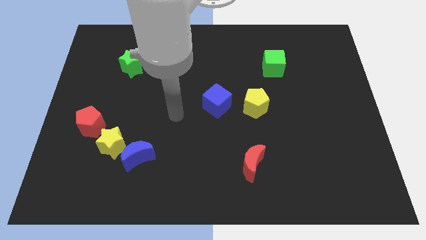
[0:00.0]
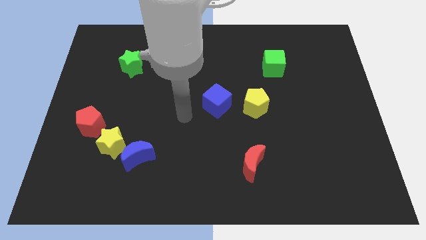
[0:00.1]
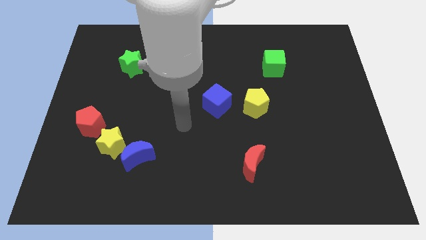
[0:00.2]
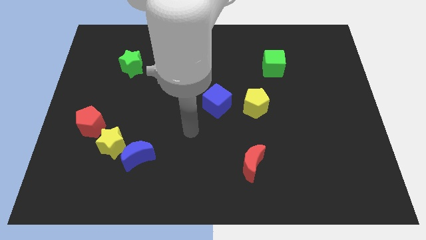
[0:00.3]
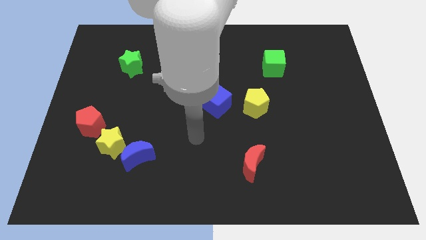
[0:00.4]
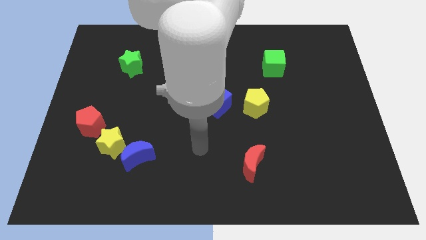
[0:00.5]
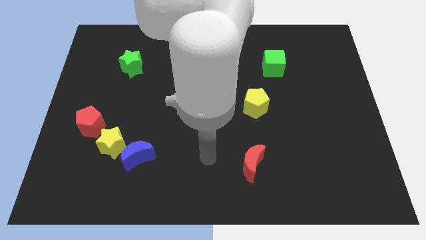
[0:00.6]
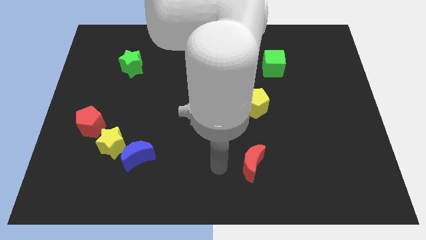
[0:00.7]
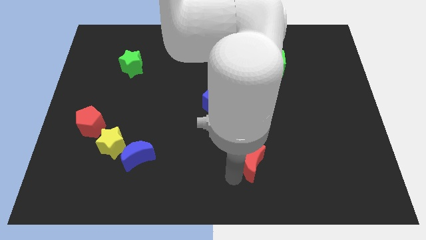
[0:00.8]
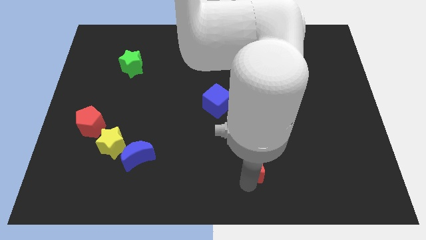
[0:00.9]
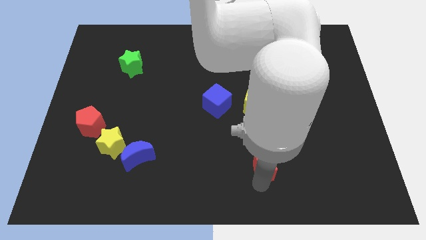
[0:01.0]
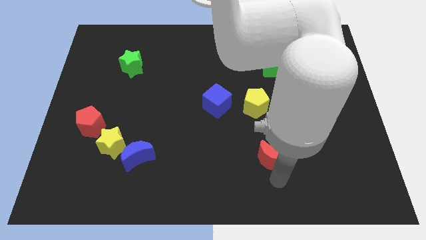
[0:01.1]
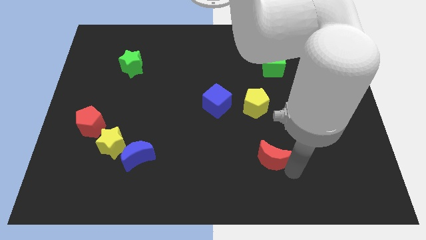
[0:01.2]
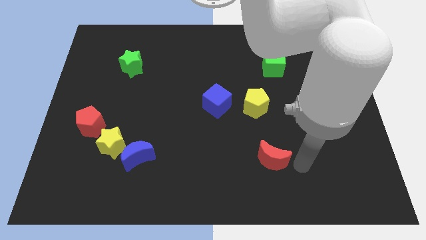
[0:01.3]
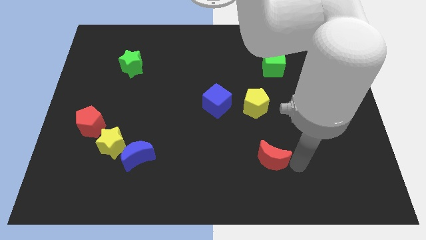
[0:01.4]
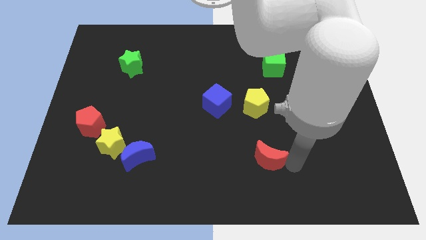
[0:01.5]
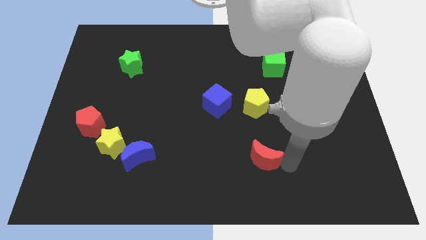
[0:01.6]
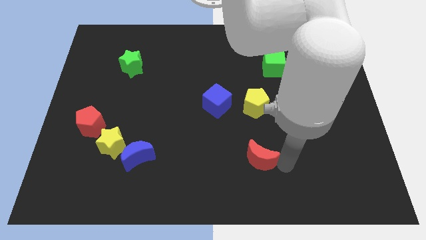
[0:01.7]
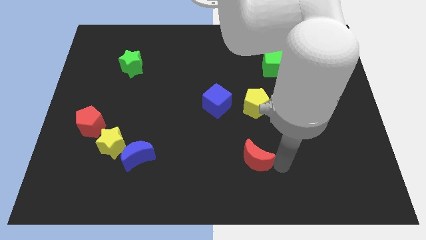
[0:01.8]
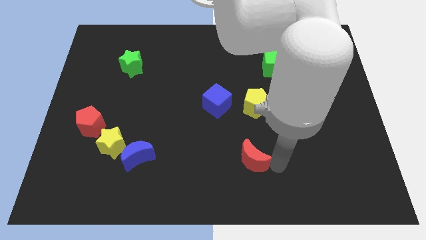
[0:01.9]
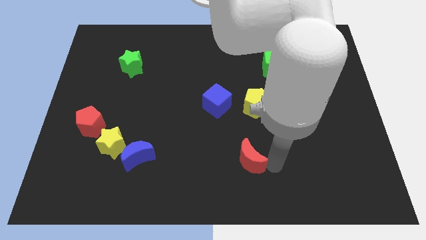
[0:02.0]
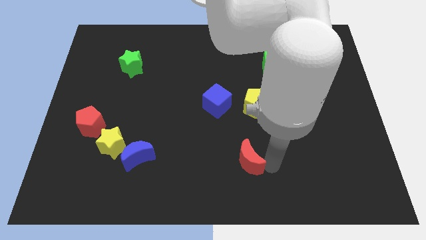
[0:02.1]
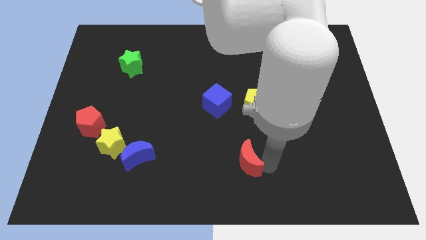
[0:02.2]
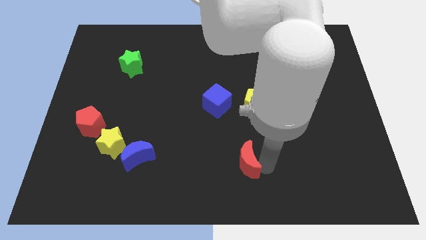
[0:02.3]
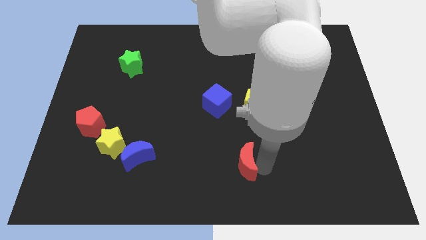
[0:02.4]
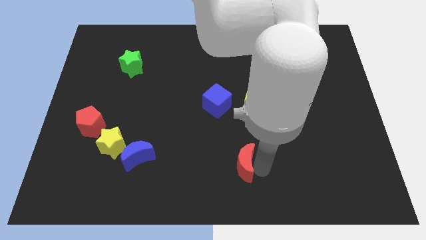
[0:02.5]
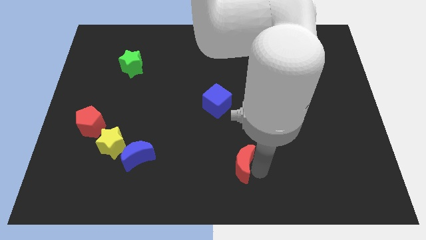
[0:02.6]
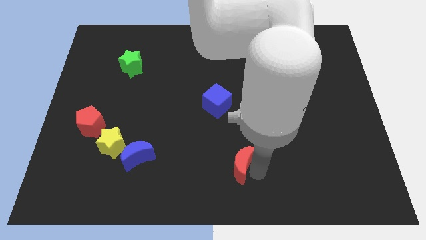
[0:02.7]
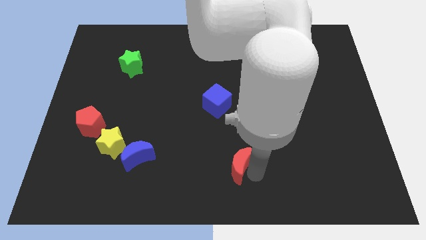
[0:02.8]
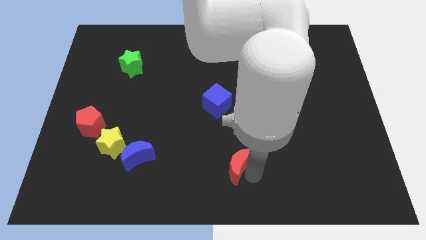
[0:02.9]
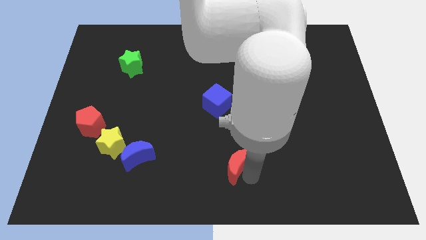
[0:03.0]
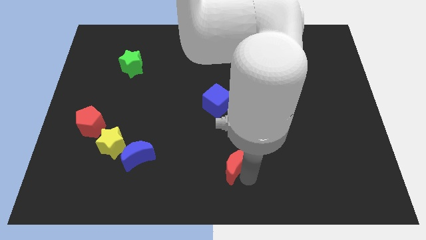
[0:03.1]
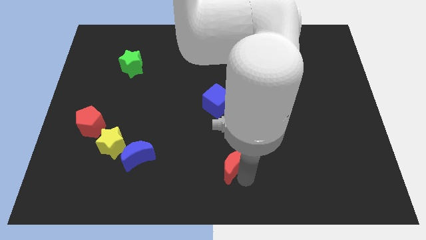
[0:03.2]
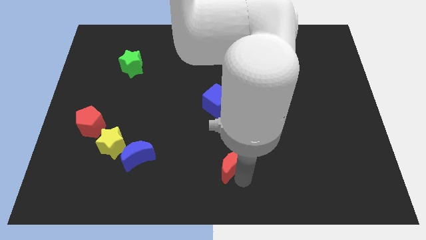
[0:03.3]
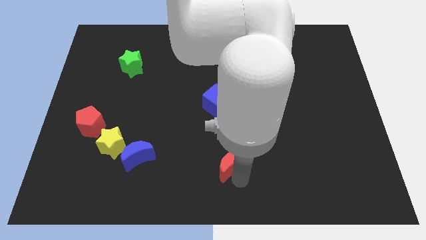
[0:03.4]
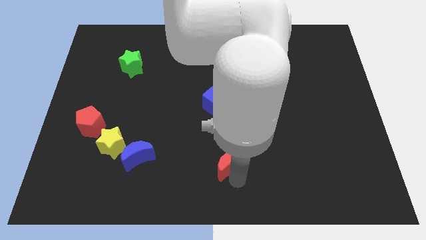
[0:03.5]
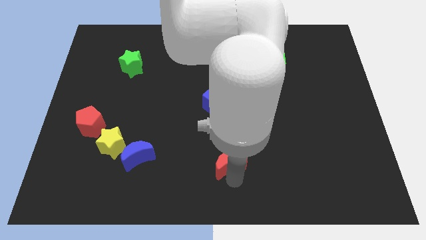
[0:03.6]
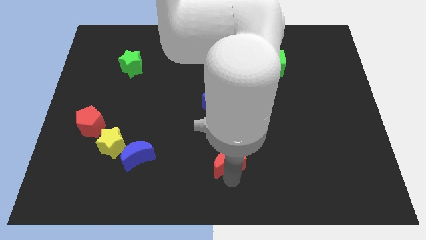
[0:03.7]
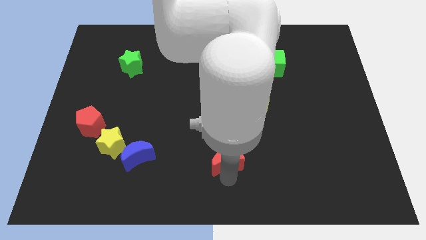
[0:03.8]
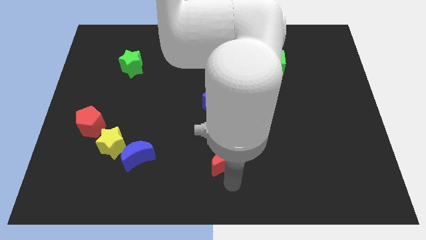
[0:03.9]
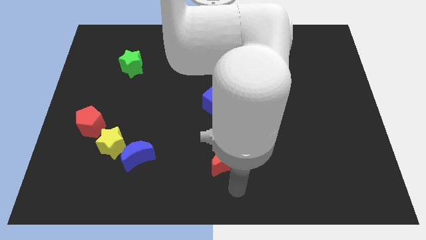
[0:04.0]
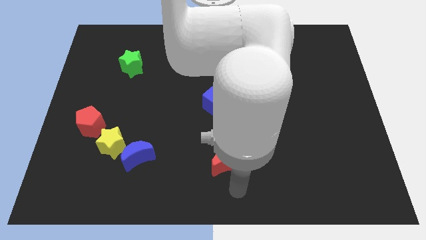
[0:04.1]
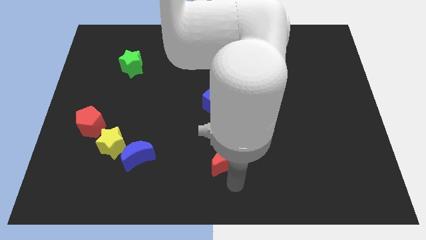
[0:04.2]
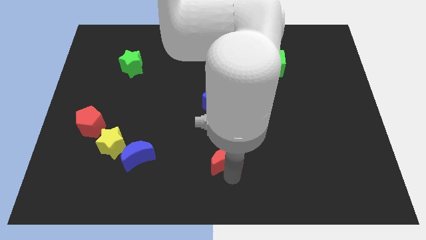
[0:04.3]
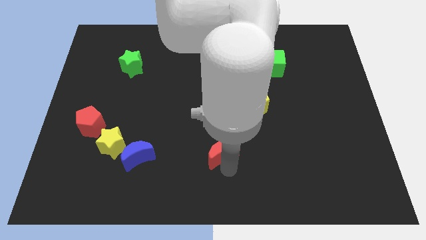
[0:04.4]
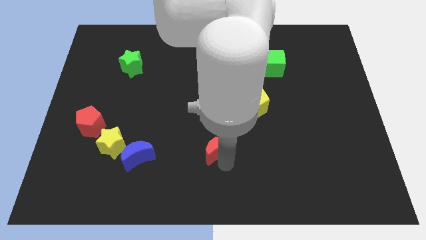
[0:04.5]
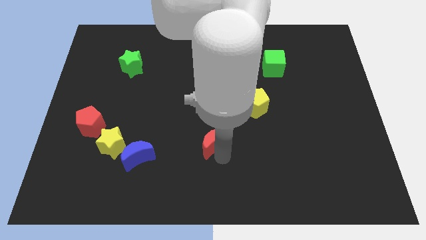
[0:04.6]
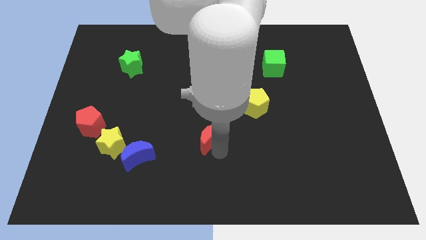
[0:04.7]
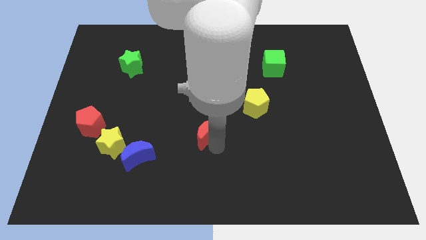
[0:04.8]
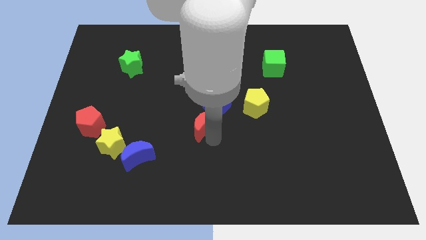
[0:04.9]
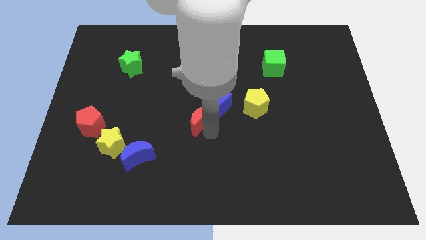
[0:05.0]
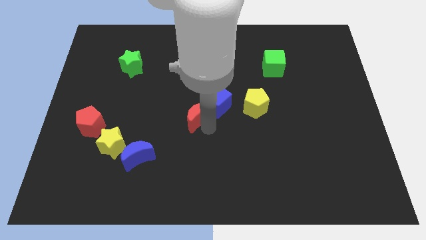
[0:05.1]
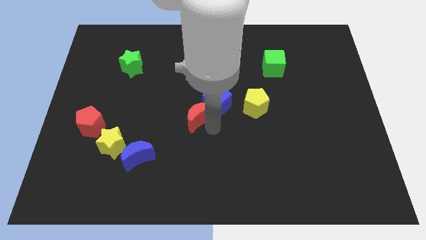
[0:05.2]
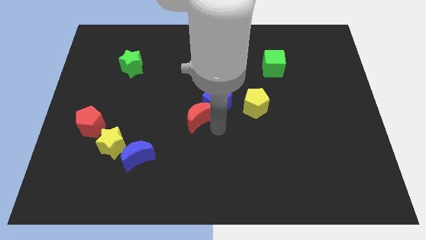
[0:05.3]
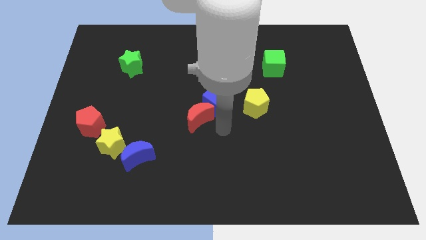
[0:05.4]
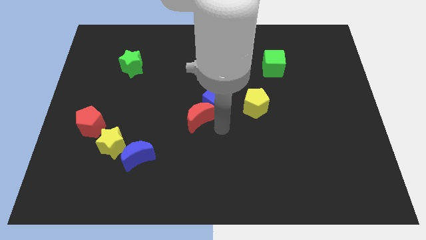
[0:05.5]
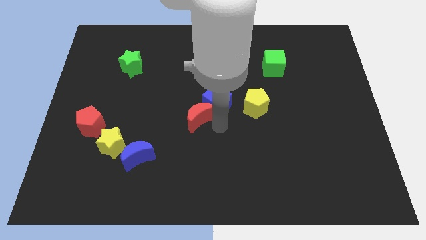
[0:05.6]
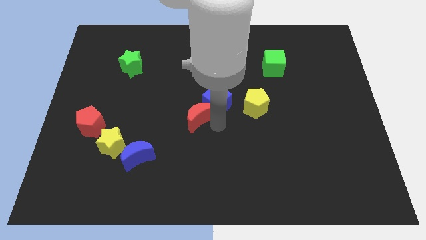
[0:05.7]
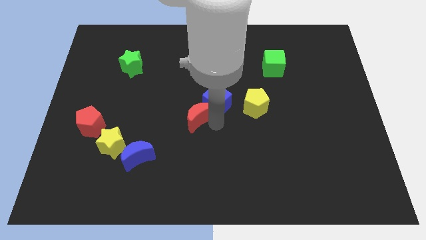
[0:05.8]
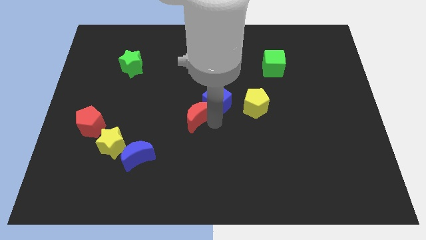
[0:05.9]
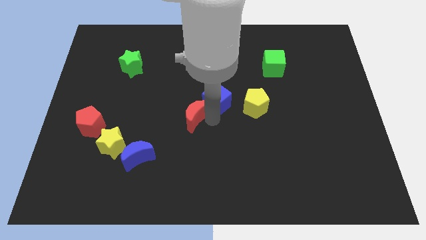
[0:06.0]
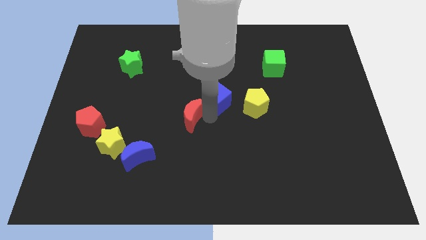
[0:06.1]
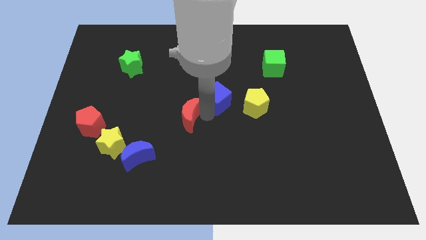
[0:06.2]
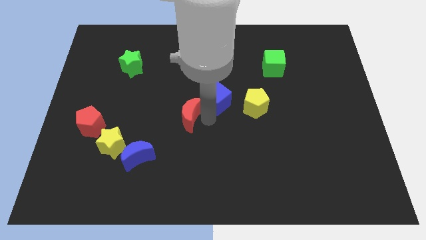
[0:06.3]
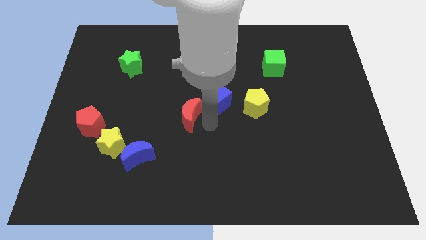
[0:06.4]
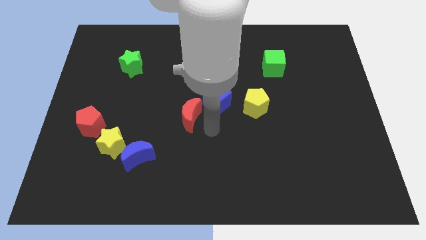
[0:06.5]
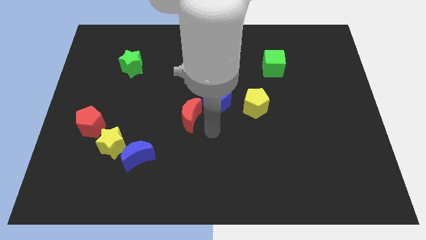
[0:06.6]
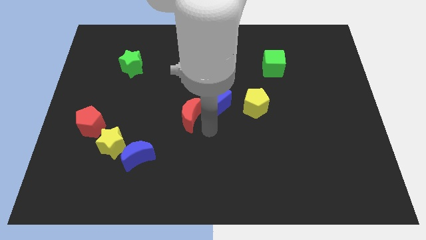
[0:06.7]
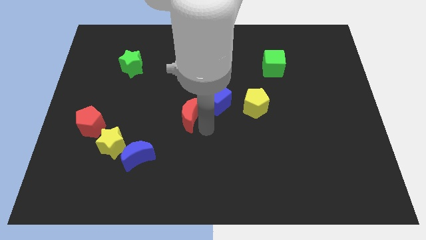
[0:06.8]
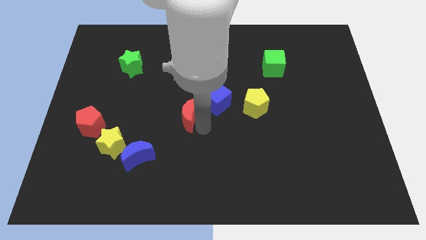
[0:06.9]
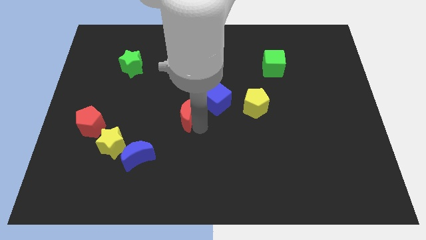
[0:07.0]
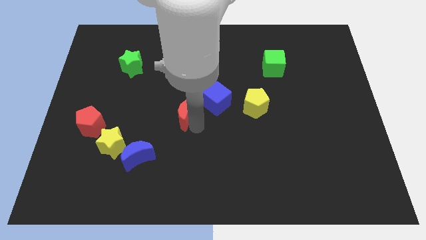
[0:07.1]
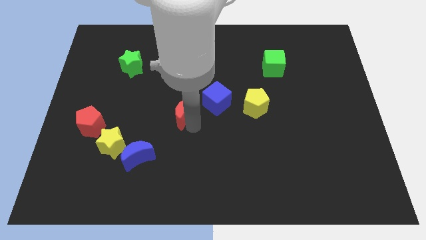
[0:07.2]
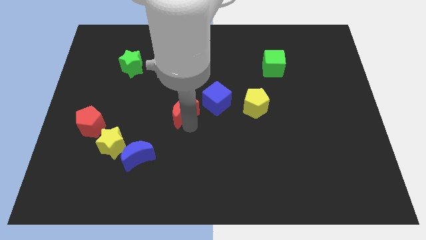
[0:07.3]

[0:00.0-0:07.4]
push the red moon up and then to the left

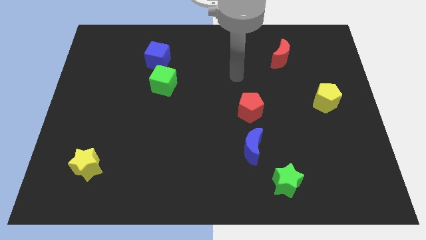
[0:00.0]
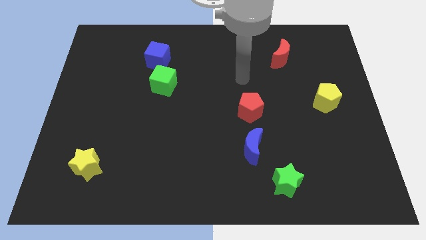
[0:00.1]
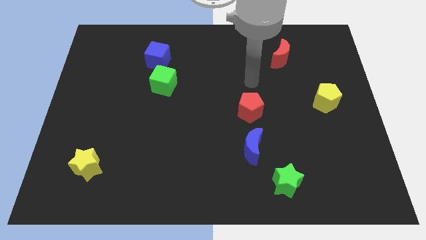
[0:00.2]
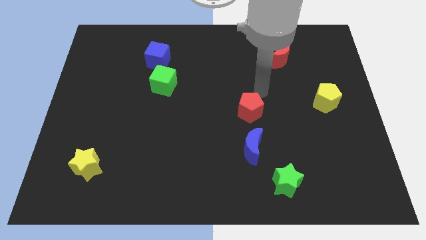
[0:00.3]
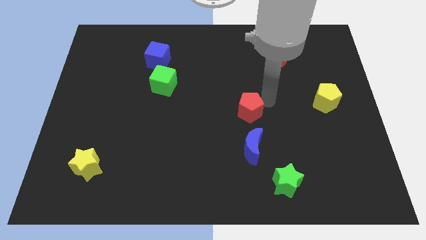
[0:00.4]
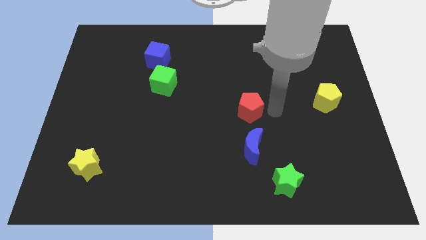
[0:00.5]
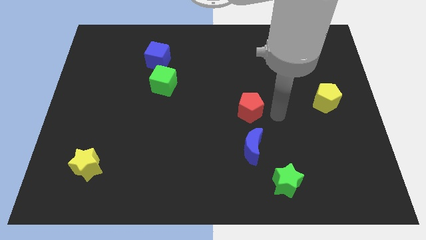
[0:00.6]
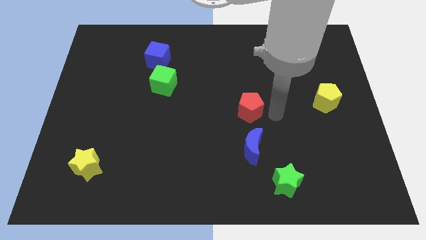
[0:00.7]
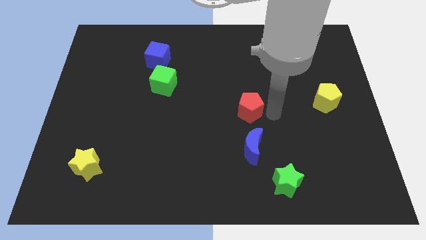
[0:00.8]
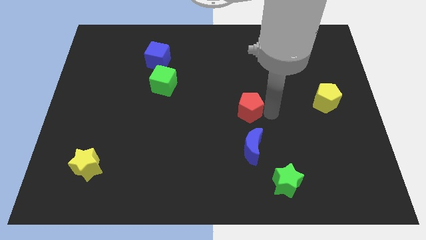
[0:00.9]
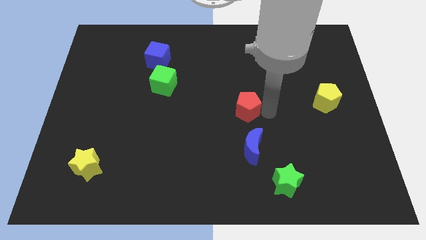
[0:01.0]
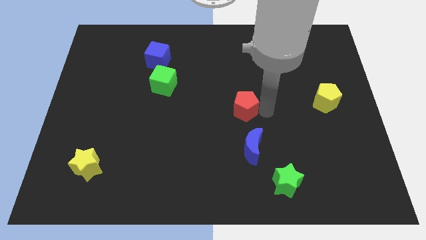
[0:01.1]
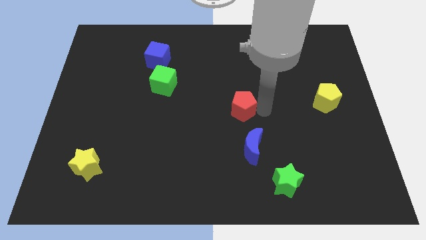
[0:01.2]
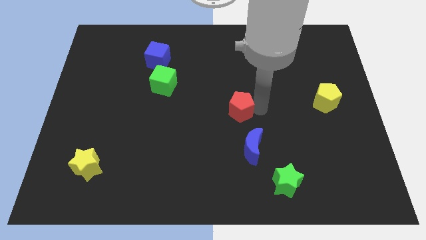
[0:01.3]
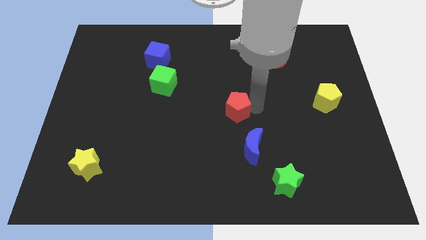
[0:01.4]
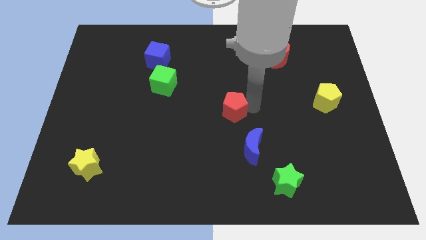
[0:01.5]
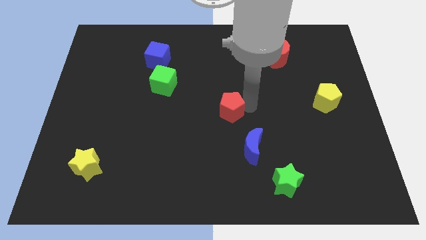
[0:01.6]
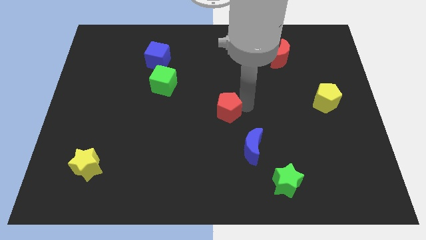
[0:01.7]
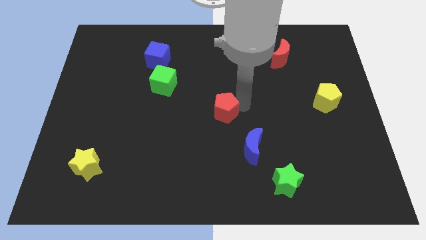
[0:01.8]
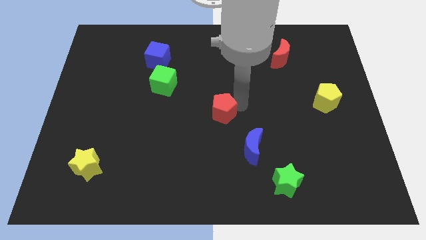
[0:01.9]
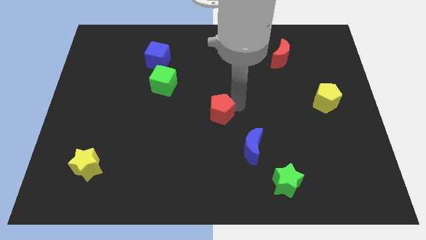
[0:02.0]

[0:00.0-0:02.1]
move the red pentagon somewhat left
